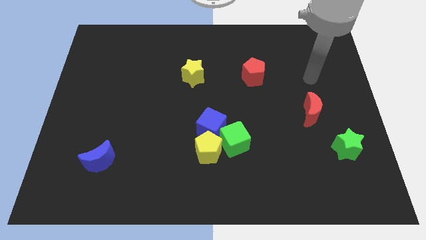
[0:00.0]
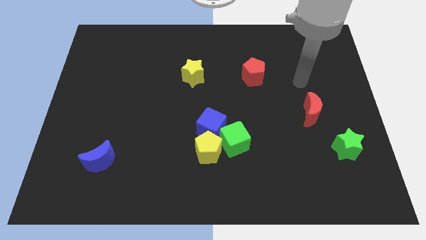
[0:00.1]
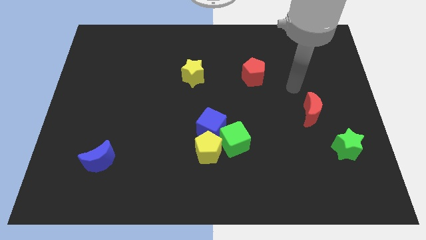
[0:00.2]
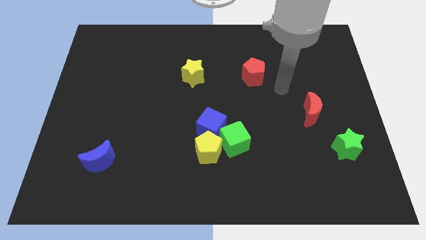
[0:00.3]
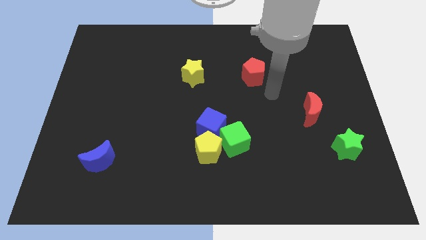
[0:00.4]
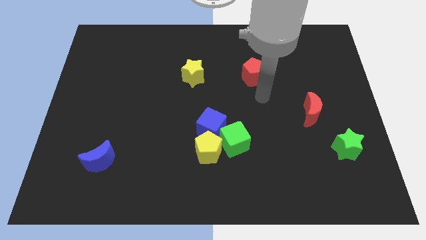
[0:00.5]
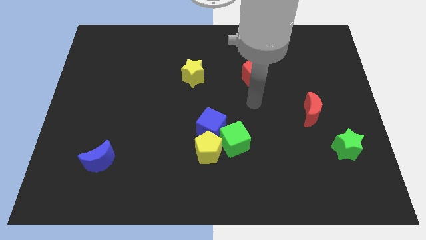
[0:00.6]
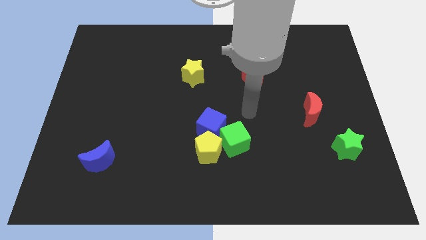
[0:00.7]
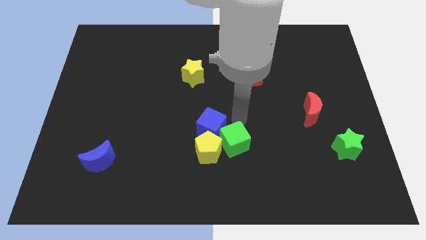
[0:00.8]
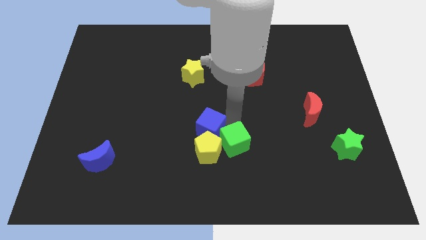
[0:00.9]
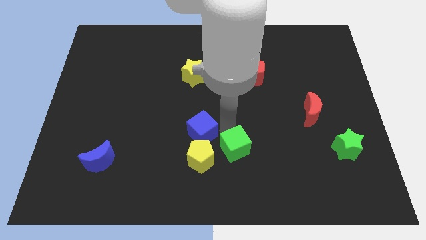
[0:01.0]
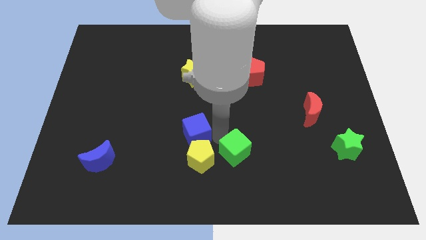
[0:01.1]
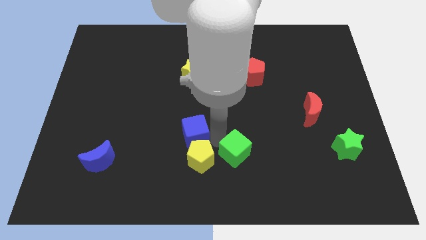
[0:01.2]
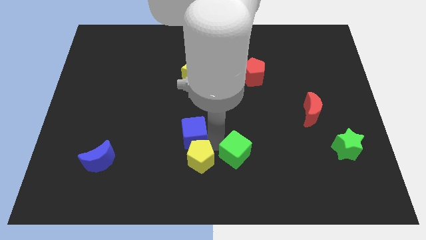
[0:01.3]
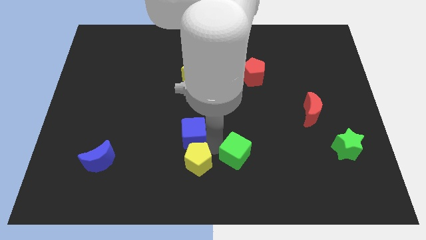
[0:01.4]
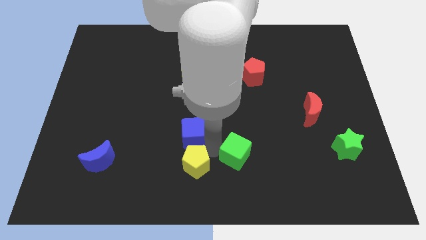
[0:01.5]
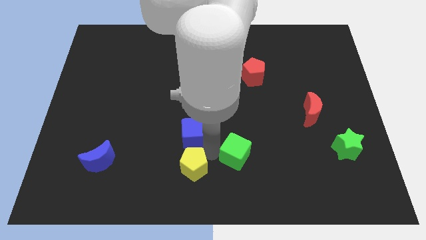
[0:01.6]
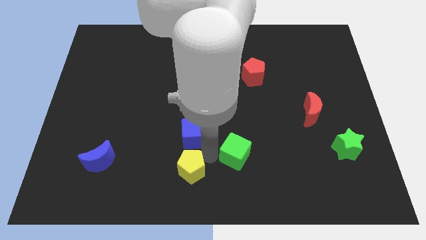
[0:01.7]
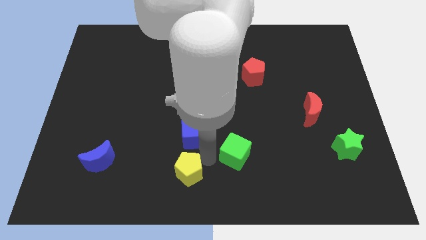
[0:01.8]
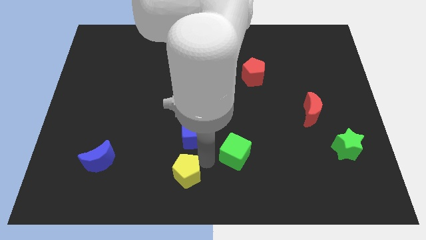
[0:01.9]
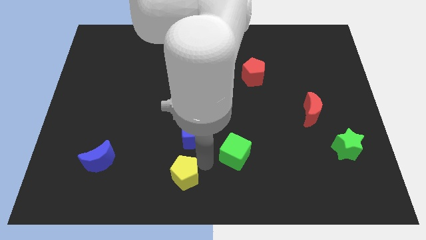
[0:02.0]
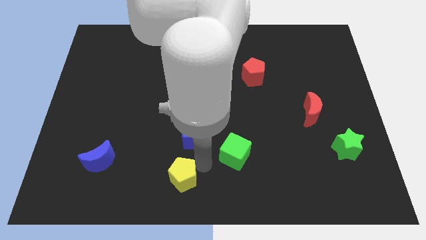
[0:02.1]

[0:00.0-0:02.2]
separate the yellow pentagon from the blue cube and green cube

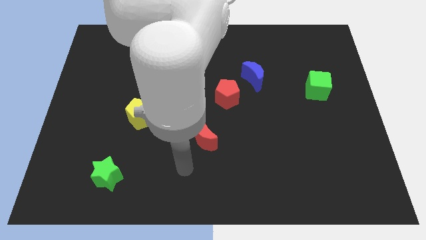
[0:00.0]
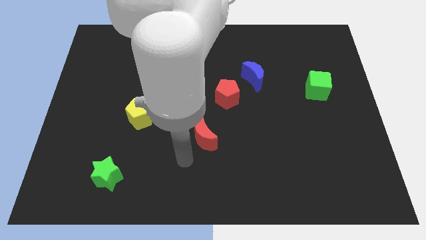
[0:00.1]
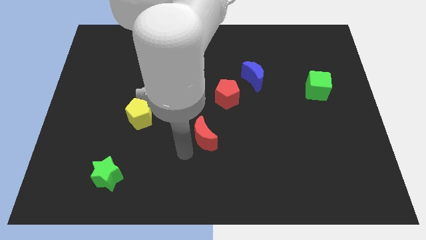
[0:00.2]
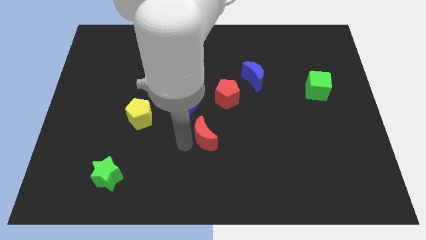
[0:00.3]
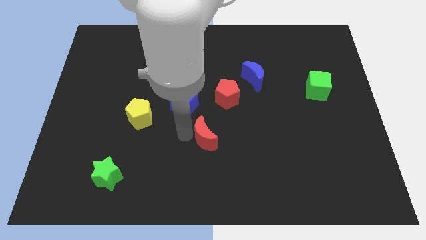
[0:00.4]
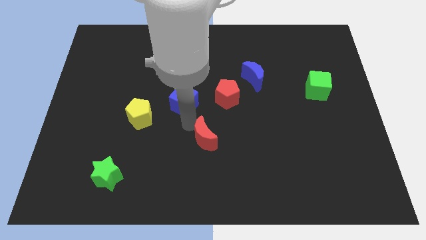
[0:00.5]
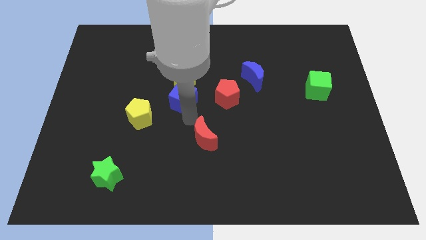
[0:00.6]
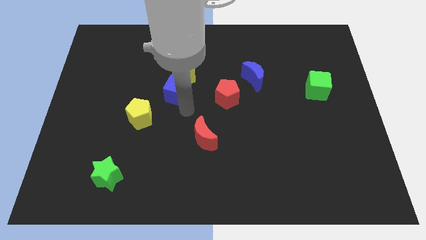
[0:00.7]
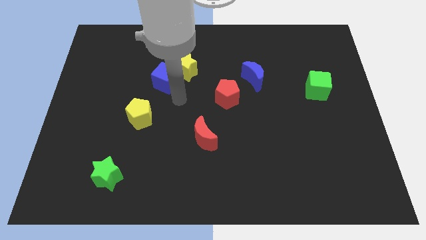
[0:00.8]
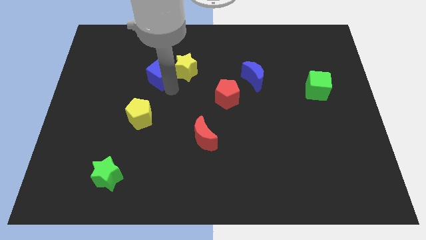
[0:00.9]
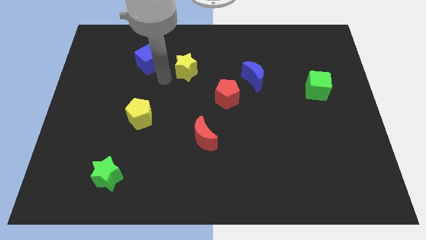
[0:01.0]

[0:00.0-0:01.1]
separate the yellow star from the blue cube

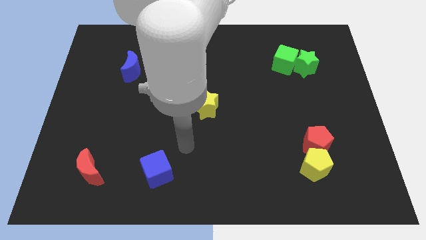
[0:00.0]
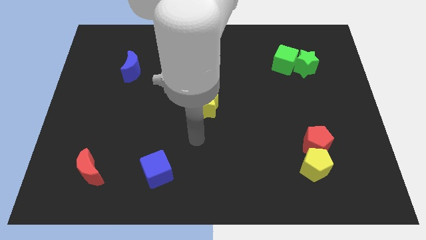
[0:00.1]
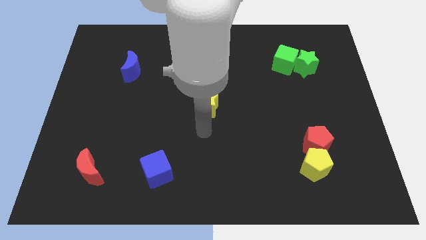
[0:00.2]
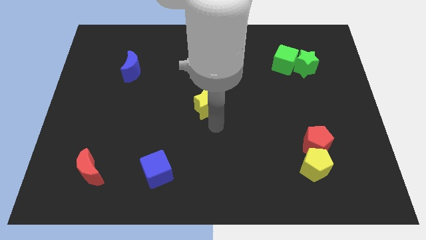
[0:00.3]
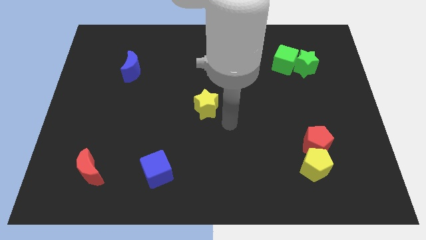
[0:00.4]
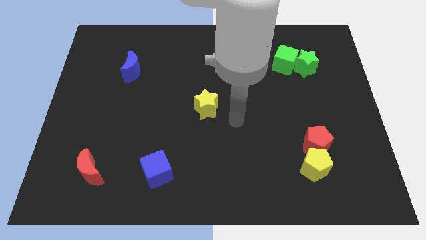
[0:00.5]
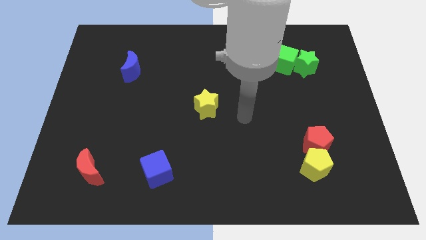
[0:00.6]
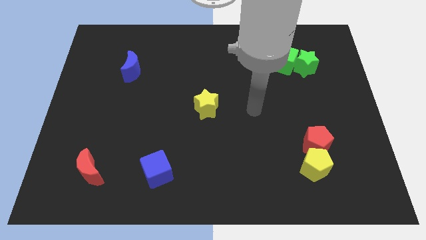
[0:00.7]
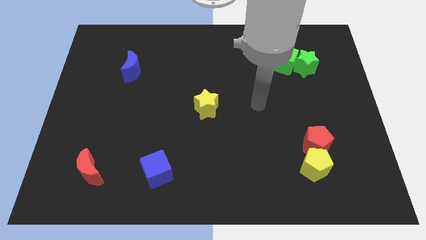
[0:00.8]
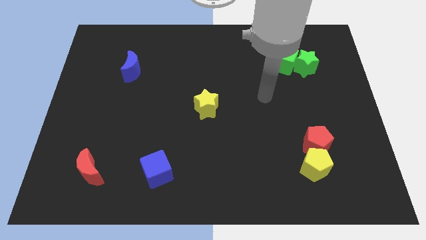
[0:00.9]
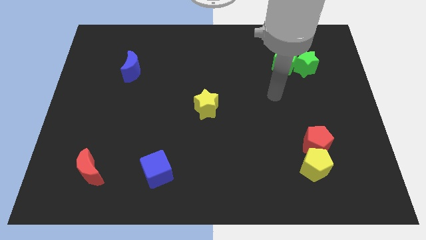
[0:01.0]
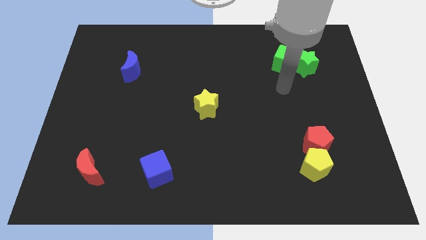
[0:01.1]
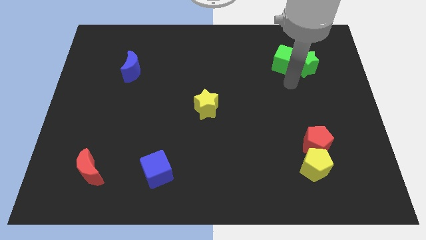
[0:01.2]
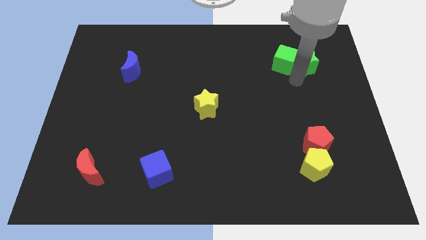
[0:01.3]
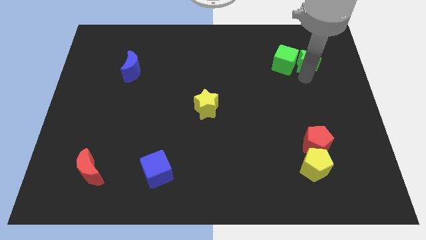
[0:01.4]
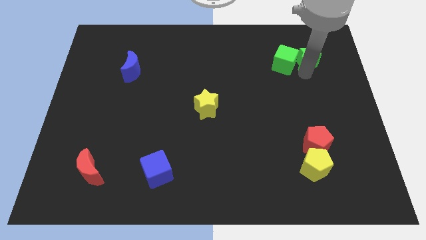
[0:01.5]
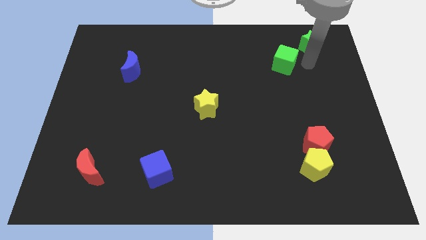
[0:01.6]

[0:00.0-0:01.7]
separate the green cube from the green star

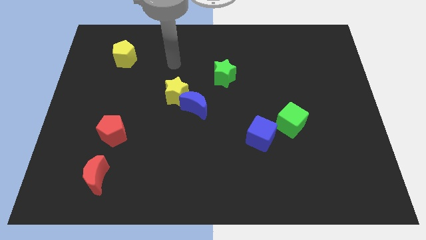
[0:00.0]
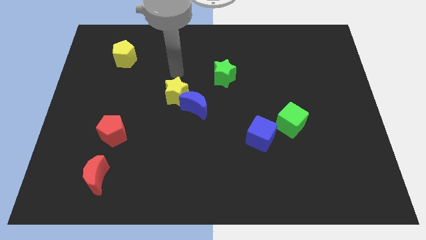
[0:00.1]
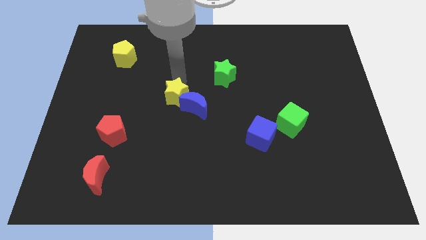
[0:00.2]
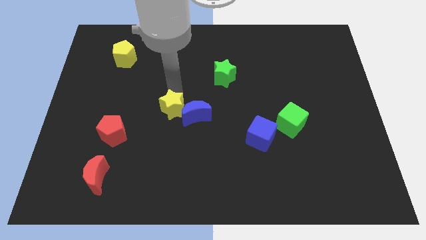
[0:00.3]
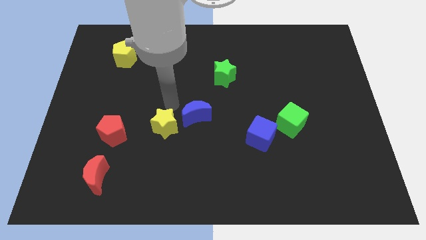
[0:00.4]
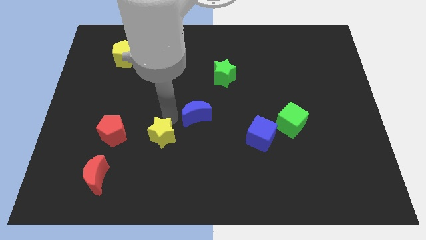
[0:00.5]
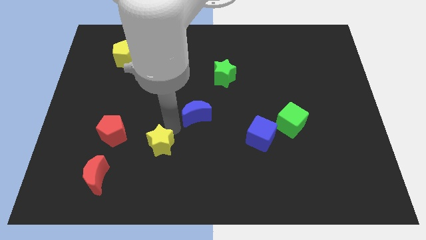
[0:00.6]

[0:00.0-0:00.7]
move the blue moon away from the yellow star

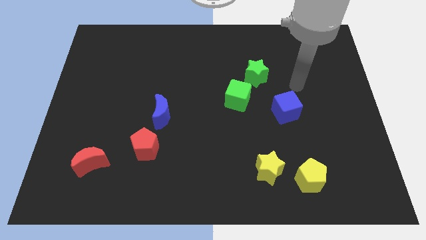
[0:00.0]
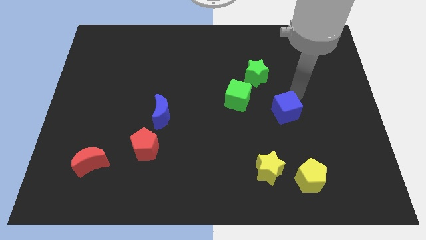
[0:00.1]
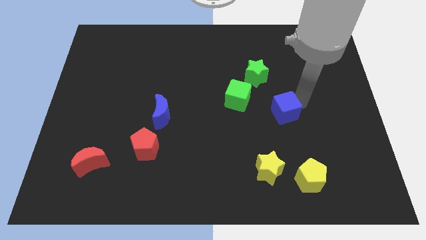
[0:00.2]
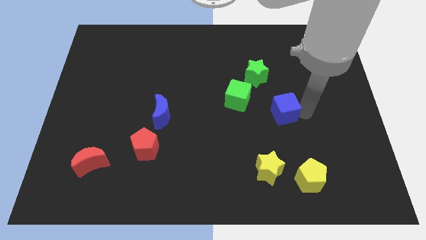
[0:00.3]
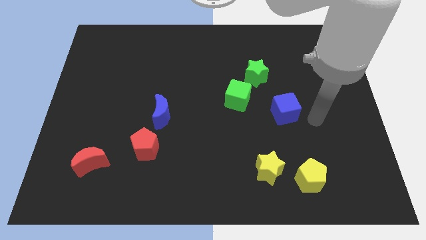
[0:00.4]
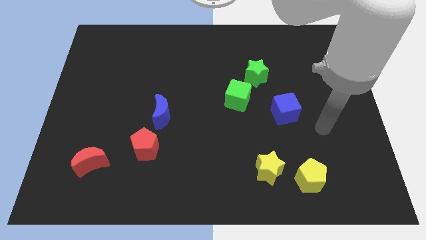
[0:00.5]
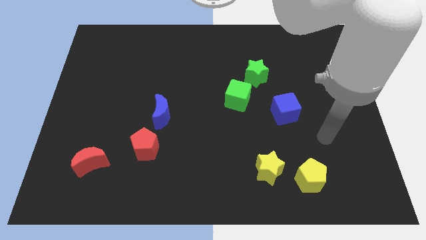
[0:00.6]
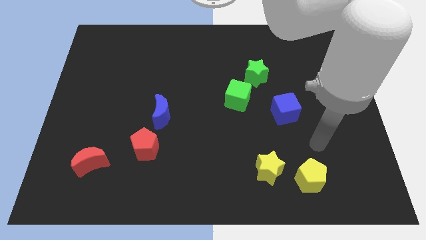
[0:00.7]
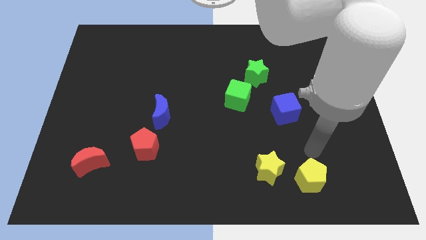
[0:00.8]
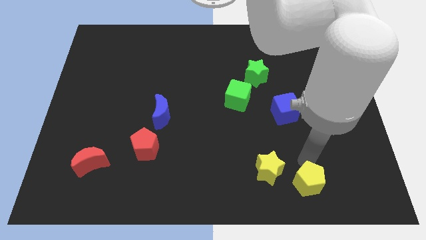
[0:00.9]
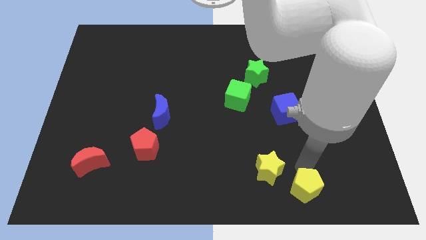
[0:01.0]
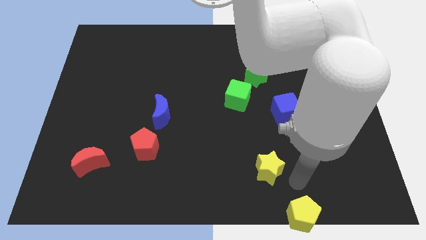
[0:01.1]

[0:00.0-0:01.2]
move the yellow star away from the yellow pentagon

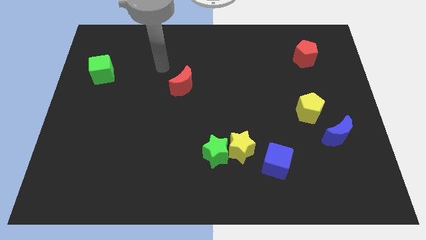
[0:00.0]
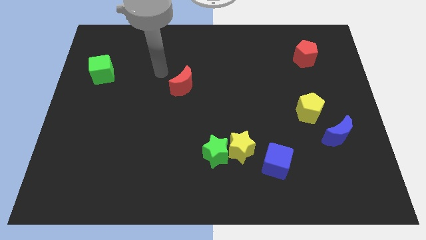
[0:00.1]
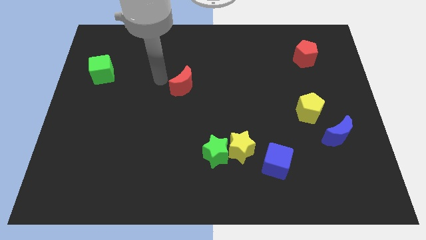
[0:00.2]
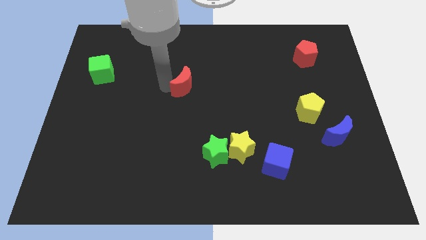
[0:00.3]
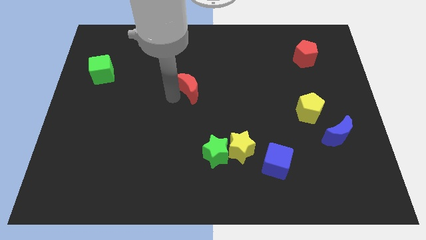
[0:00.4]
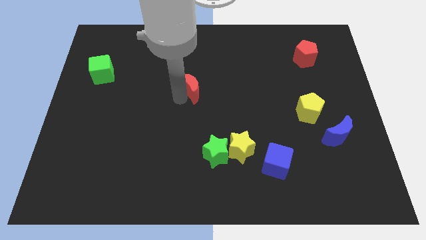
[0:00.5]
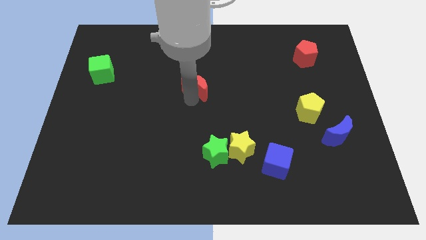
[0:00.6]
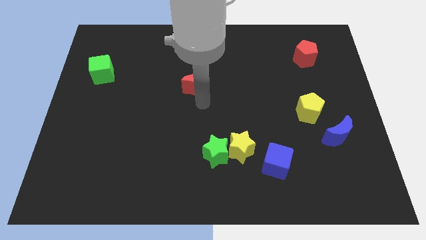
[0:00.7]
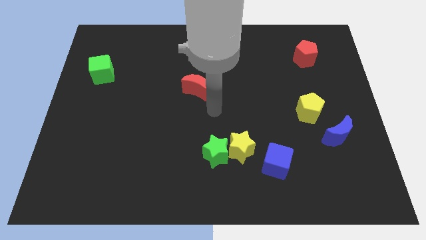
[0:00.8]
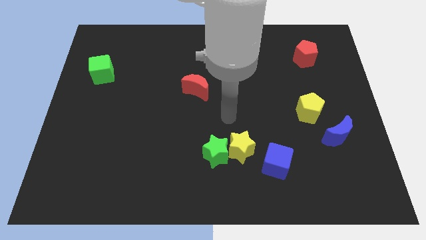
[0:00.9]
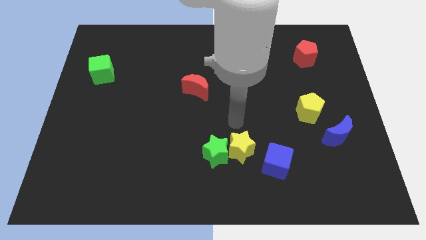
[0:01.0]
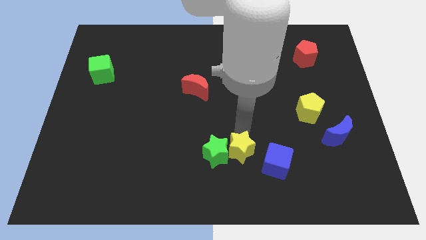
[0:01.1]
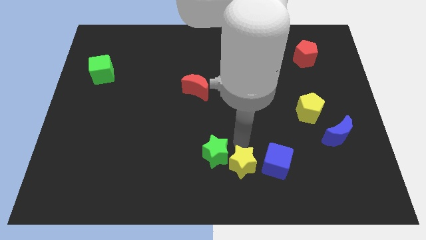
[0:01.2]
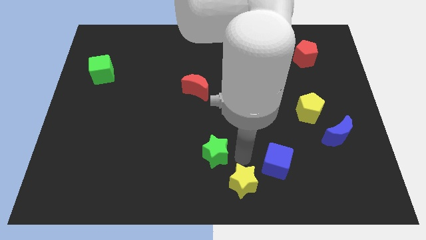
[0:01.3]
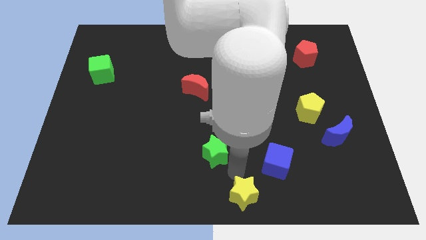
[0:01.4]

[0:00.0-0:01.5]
pull the green star apart from the yellow star

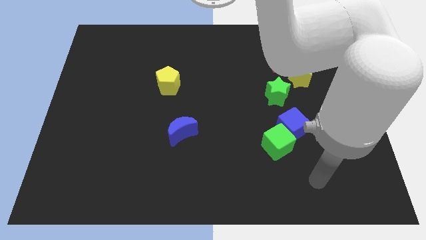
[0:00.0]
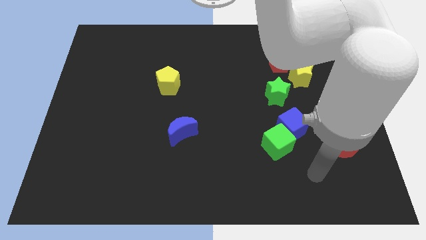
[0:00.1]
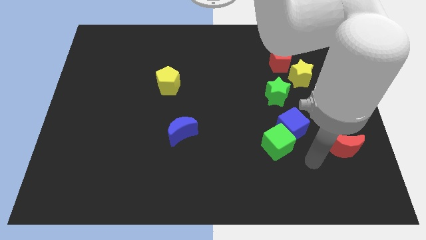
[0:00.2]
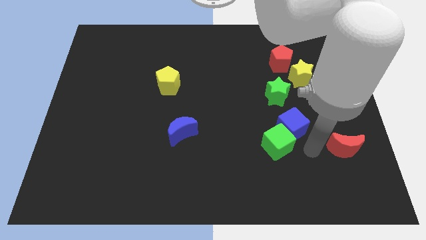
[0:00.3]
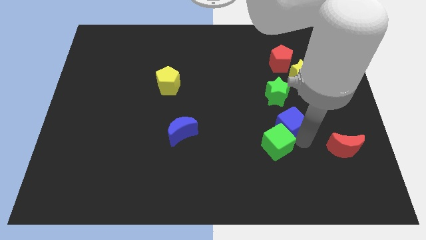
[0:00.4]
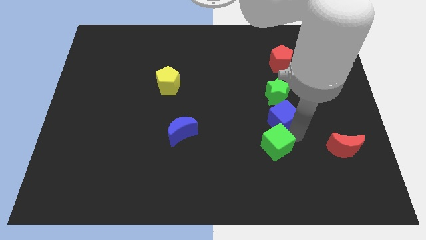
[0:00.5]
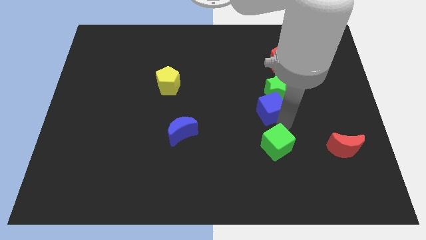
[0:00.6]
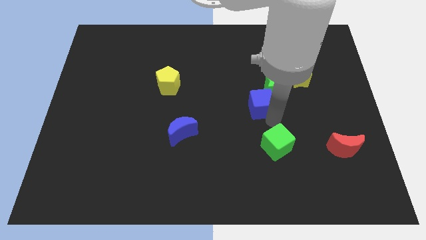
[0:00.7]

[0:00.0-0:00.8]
move the green cube away from the blue cube
